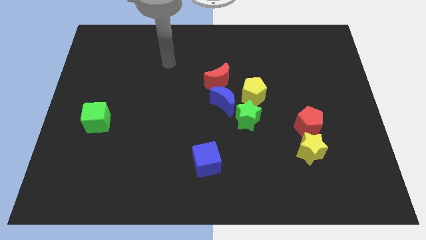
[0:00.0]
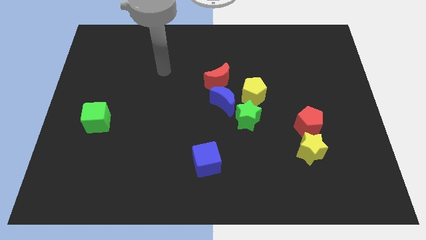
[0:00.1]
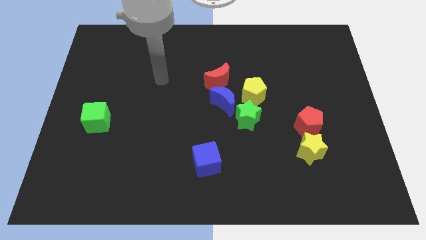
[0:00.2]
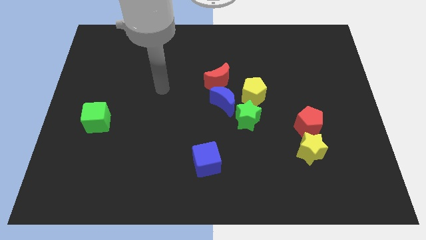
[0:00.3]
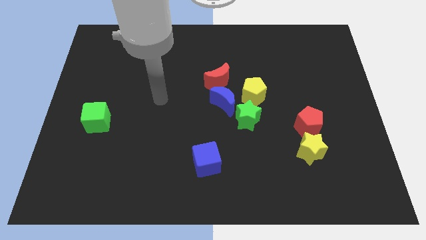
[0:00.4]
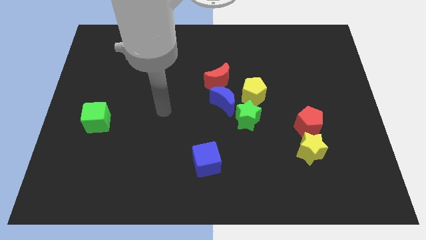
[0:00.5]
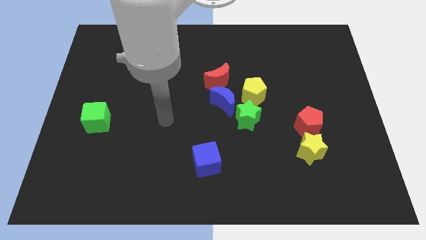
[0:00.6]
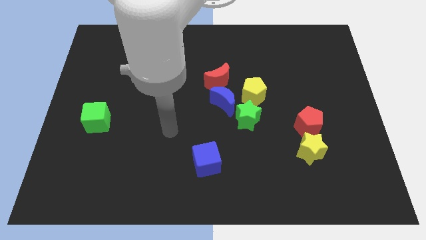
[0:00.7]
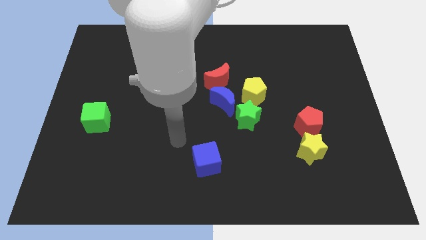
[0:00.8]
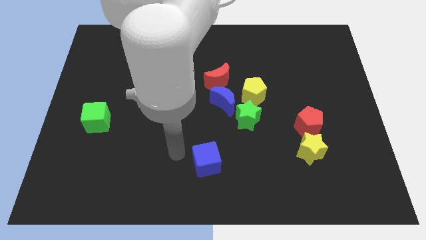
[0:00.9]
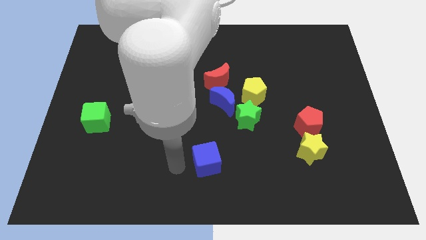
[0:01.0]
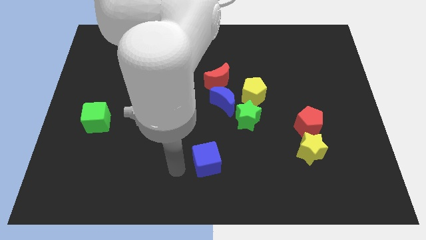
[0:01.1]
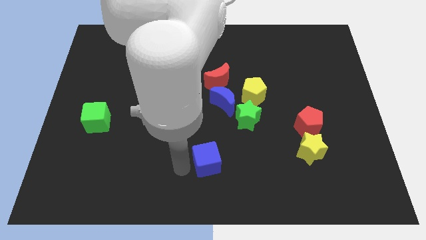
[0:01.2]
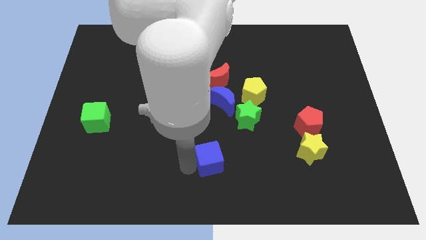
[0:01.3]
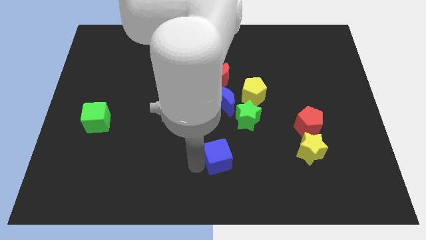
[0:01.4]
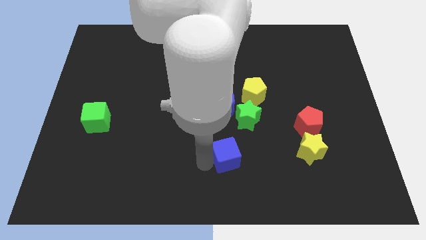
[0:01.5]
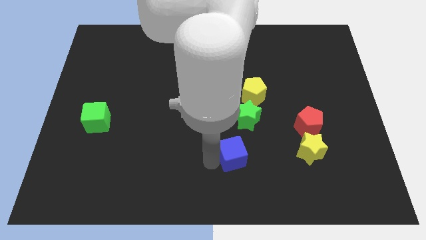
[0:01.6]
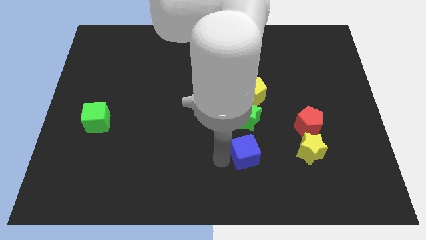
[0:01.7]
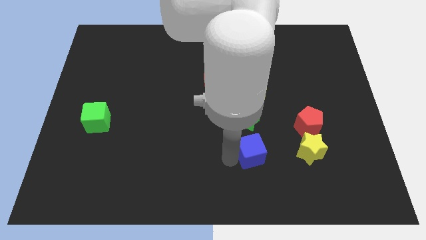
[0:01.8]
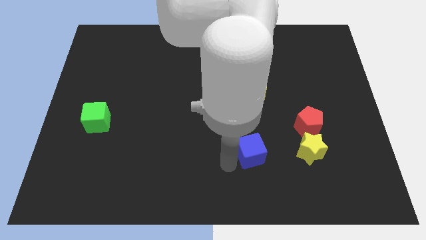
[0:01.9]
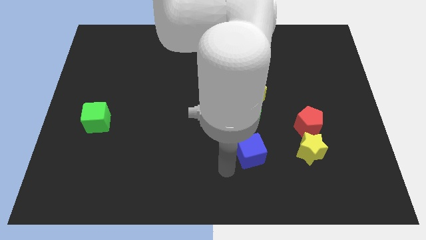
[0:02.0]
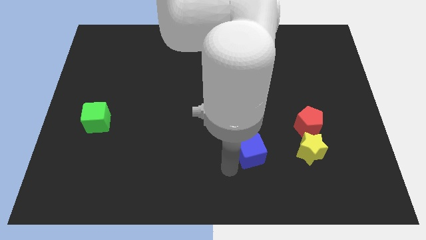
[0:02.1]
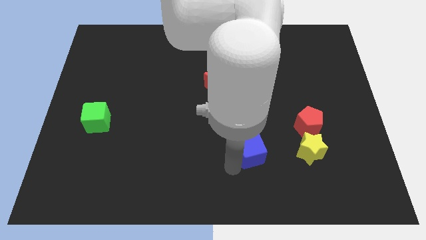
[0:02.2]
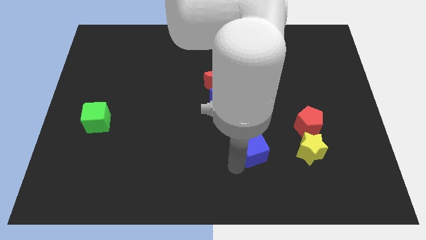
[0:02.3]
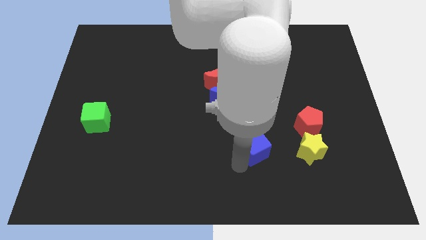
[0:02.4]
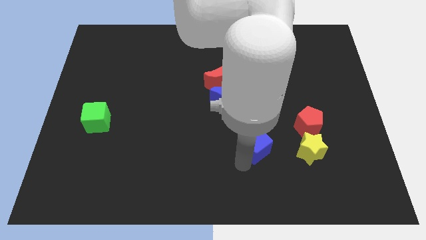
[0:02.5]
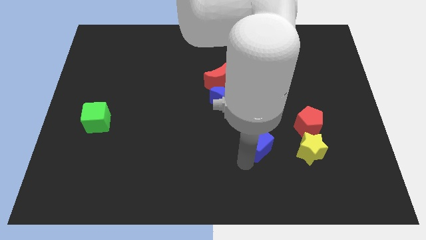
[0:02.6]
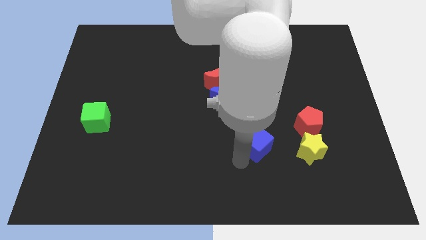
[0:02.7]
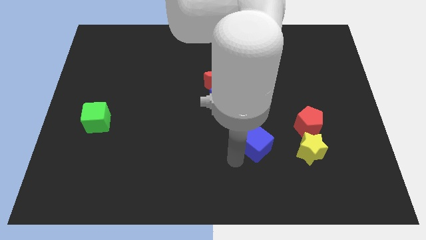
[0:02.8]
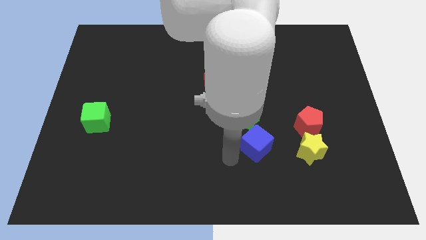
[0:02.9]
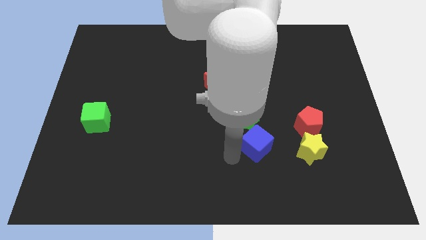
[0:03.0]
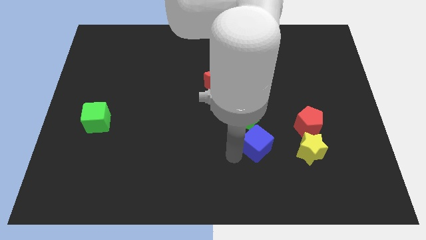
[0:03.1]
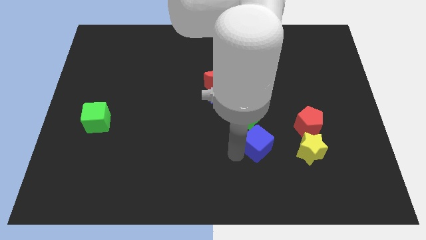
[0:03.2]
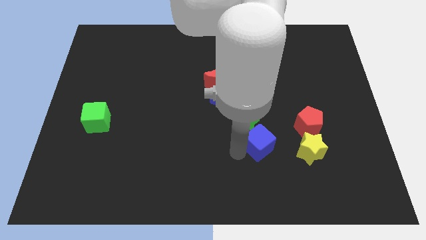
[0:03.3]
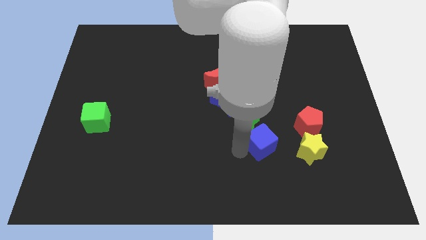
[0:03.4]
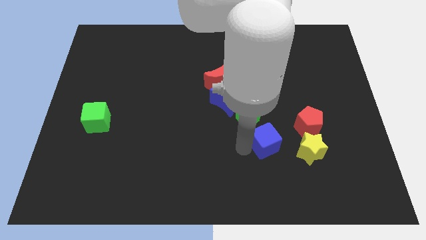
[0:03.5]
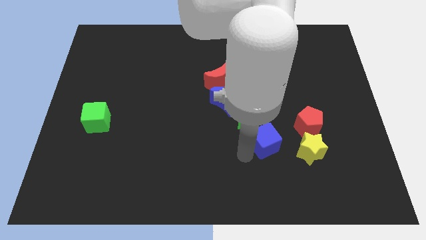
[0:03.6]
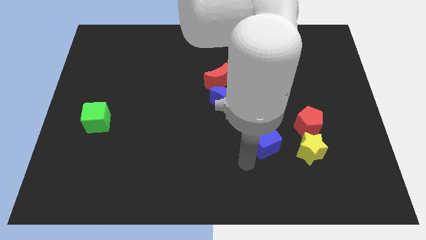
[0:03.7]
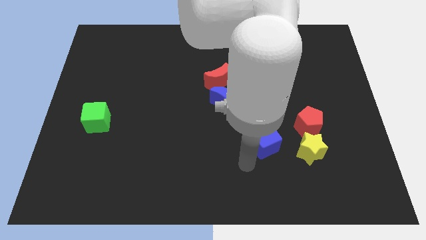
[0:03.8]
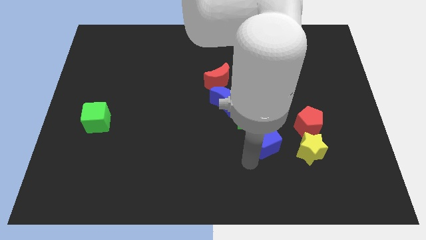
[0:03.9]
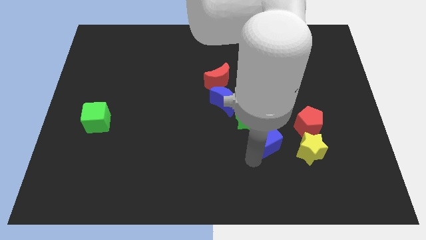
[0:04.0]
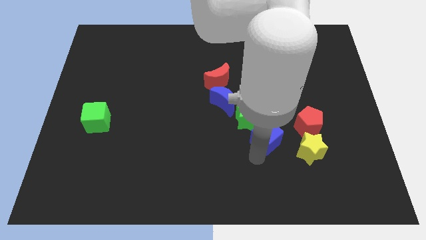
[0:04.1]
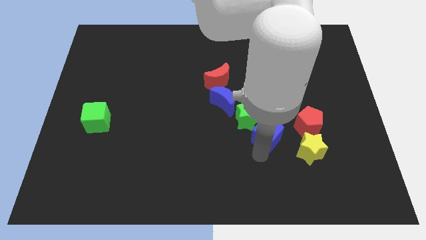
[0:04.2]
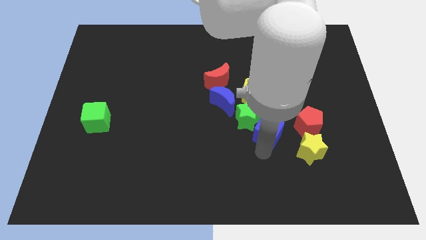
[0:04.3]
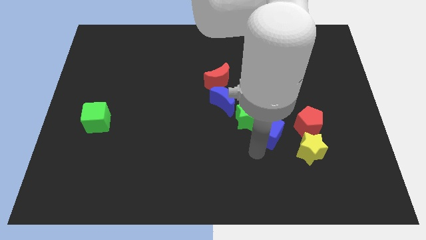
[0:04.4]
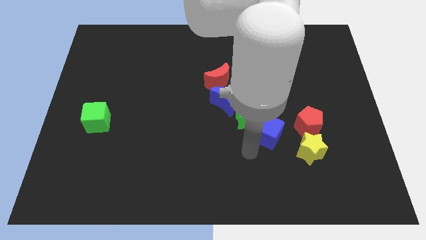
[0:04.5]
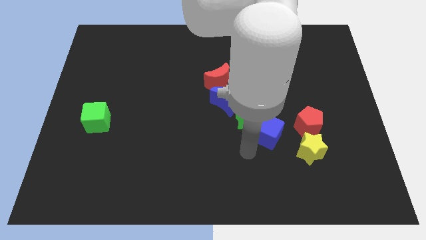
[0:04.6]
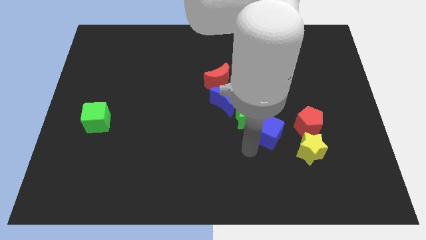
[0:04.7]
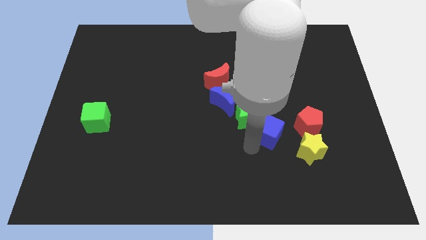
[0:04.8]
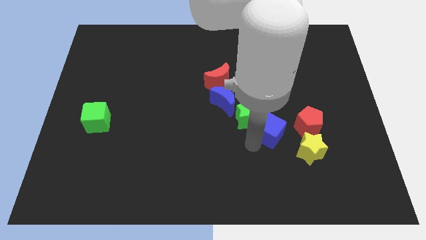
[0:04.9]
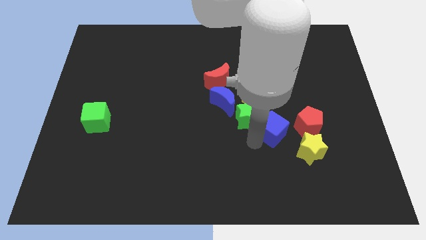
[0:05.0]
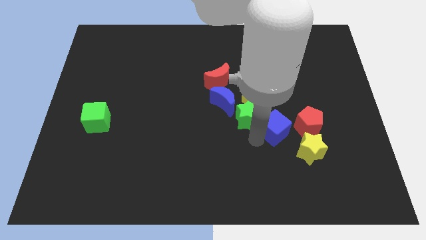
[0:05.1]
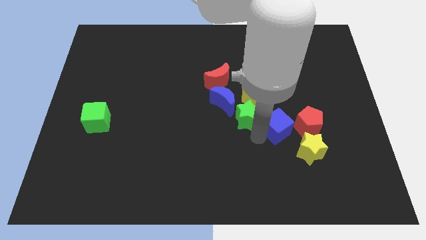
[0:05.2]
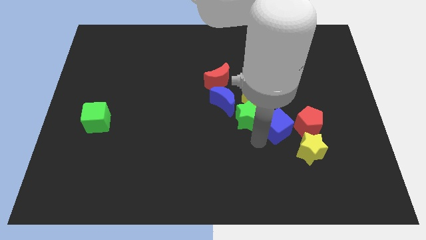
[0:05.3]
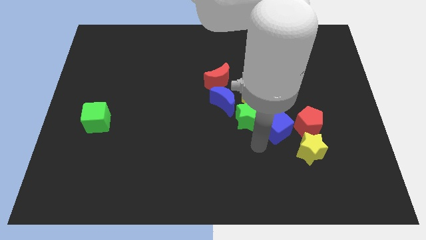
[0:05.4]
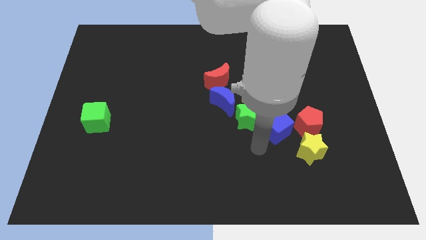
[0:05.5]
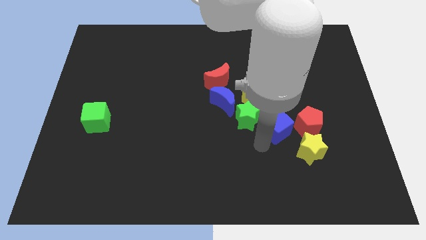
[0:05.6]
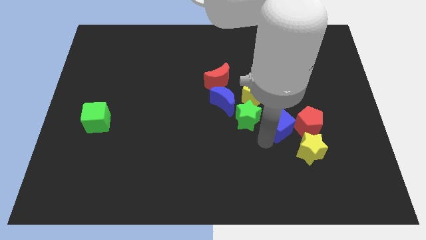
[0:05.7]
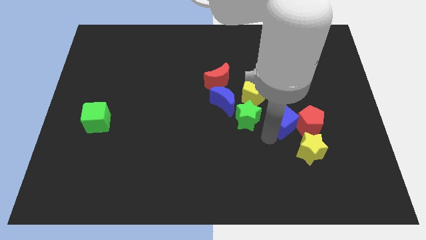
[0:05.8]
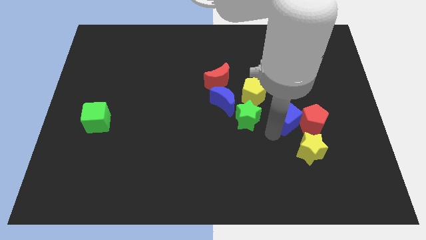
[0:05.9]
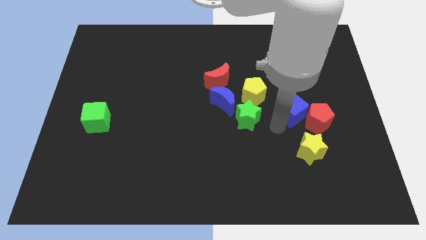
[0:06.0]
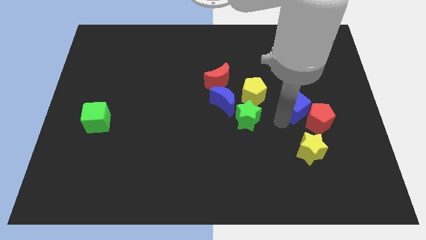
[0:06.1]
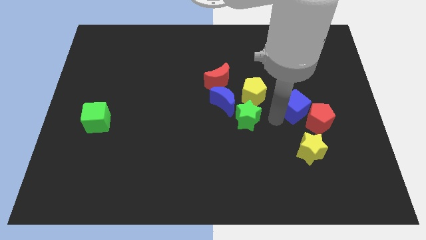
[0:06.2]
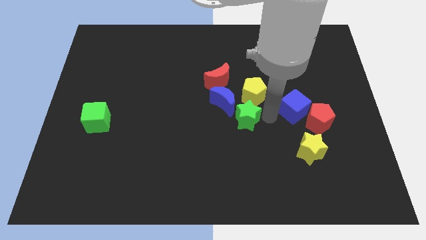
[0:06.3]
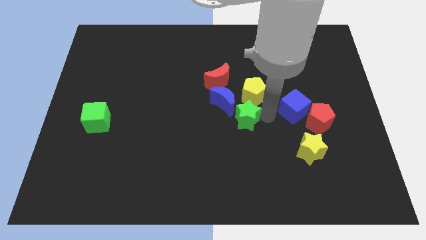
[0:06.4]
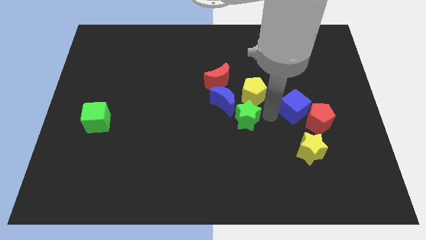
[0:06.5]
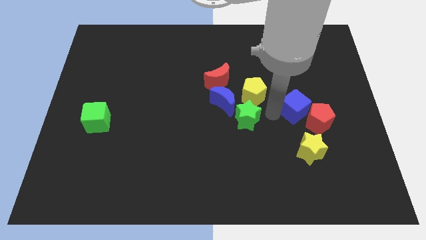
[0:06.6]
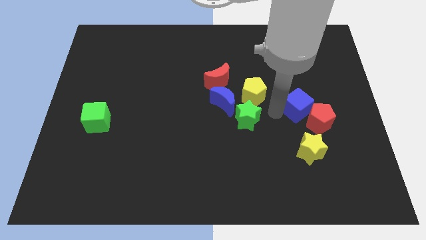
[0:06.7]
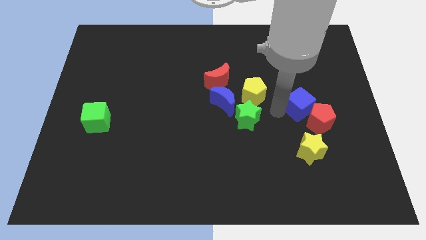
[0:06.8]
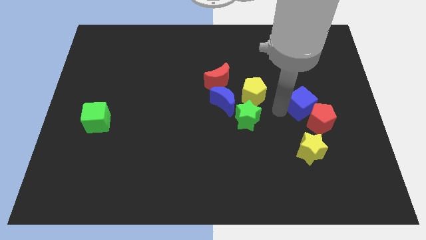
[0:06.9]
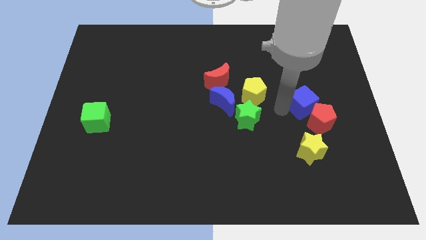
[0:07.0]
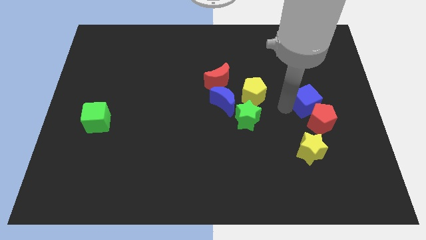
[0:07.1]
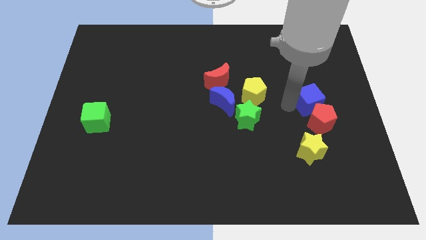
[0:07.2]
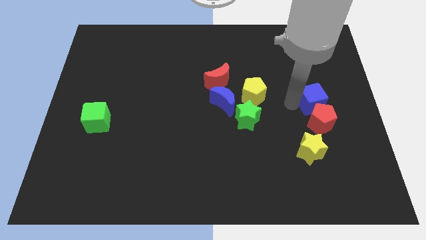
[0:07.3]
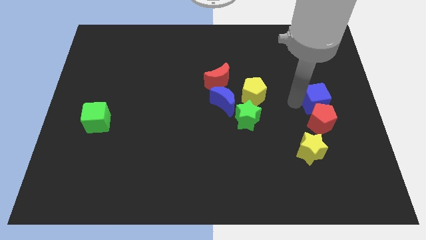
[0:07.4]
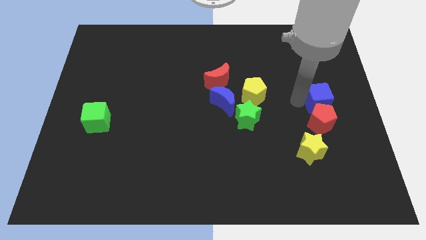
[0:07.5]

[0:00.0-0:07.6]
move the blue cube to the center right

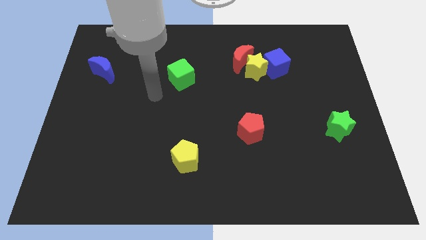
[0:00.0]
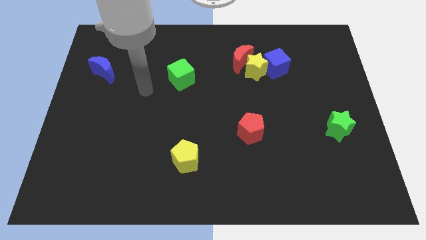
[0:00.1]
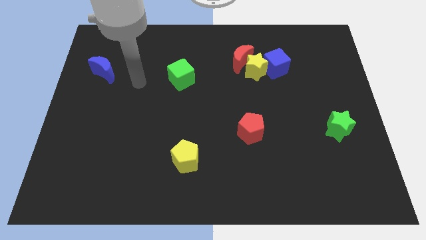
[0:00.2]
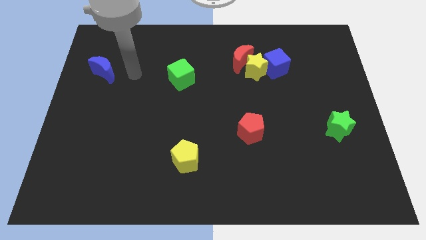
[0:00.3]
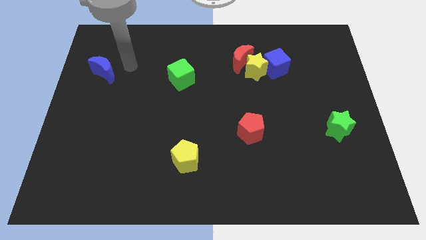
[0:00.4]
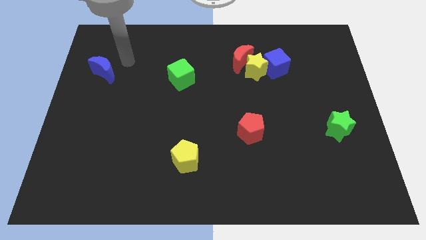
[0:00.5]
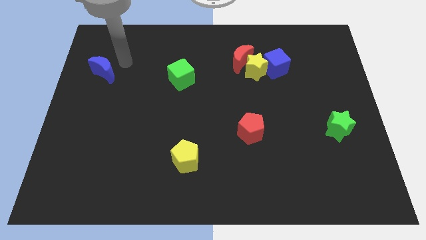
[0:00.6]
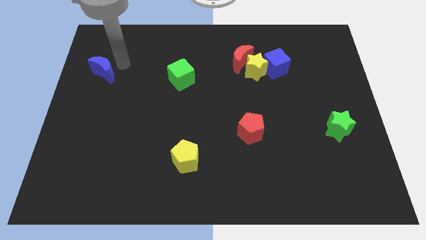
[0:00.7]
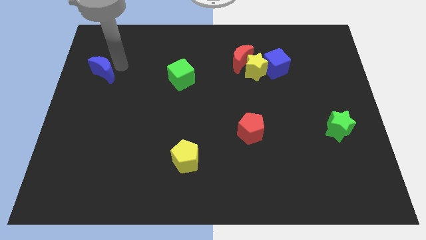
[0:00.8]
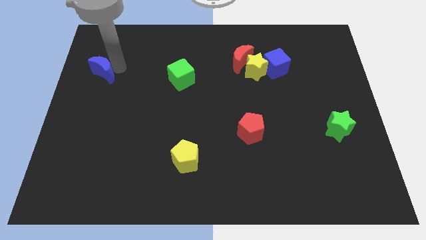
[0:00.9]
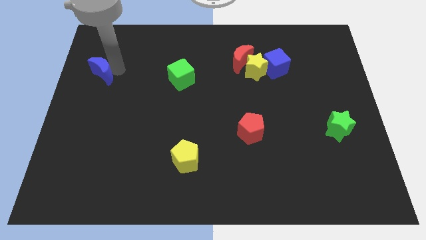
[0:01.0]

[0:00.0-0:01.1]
move the blue moon to the center left
